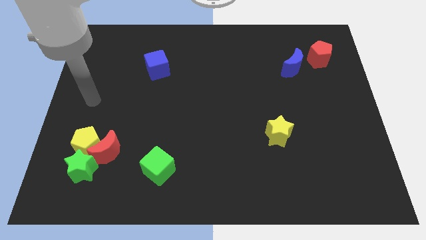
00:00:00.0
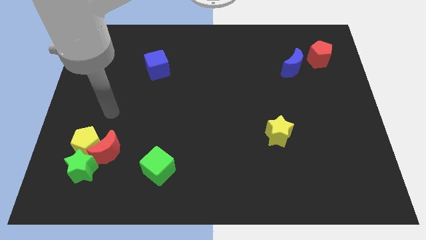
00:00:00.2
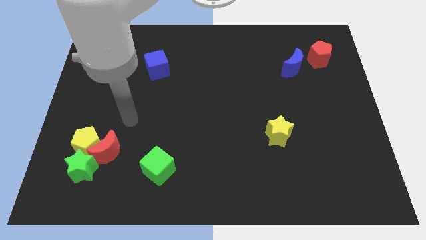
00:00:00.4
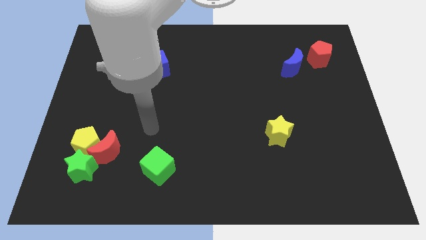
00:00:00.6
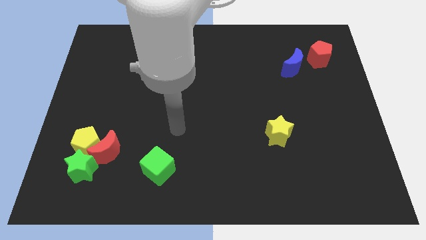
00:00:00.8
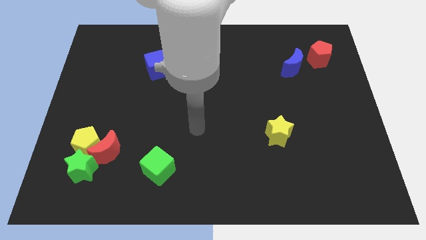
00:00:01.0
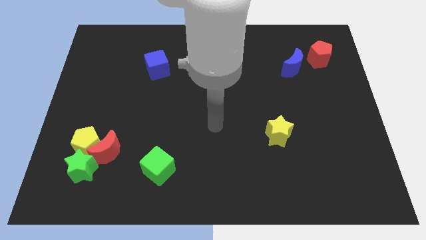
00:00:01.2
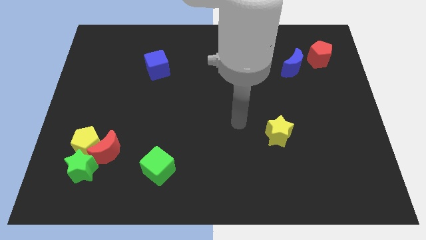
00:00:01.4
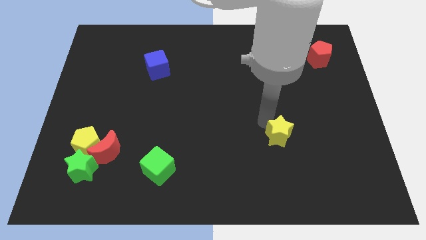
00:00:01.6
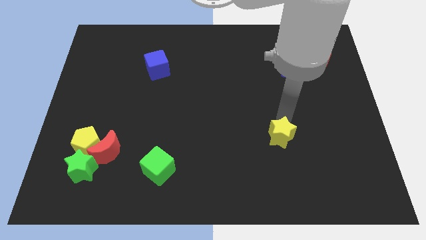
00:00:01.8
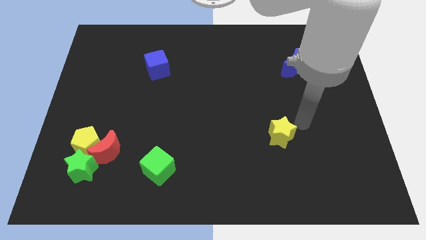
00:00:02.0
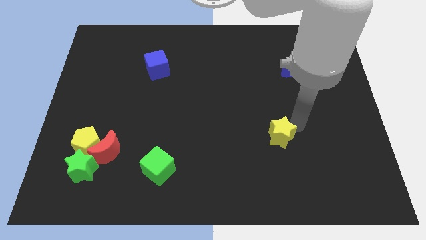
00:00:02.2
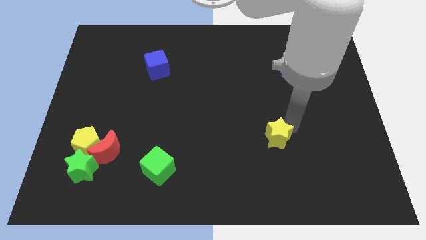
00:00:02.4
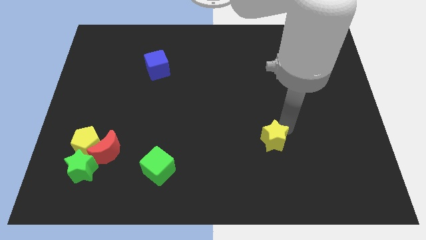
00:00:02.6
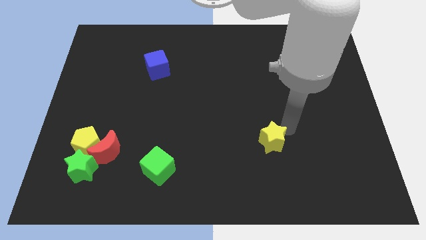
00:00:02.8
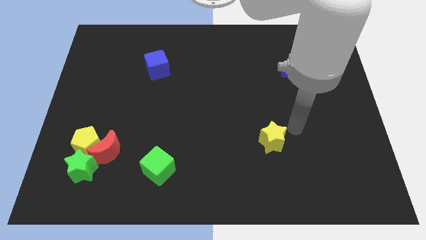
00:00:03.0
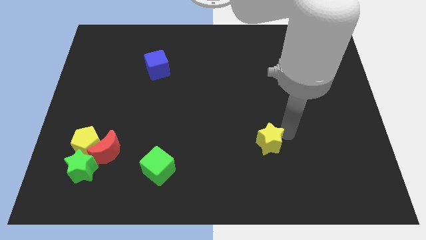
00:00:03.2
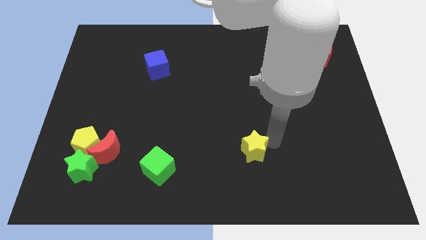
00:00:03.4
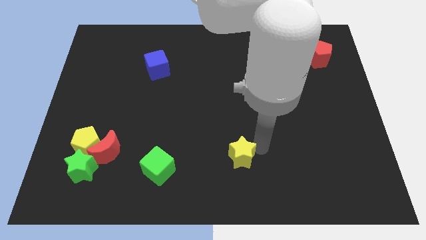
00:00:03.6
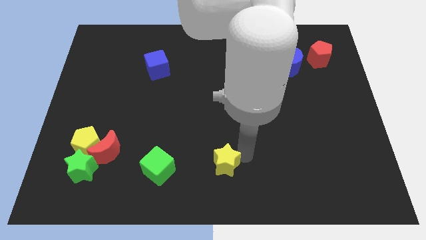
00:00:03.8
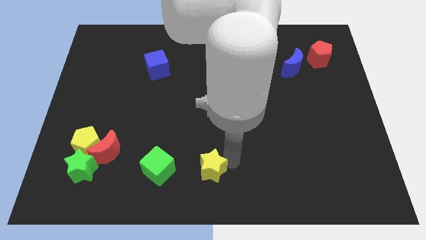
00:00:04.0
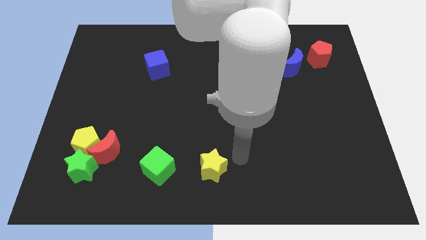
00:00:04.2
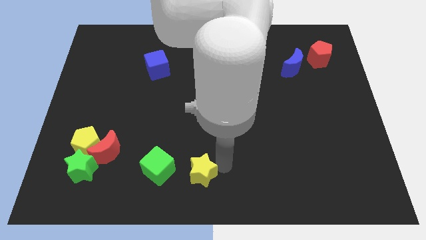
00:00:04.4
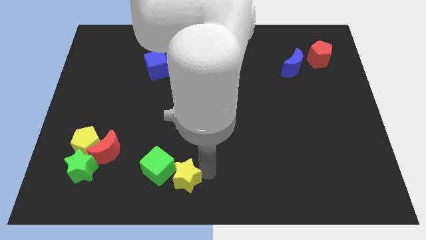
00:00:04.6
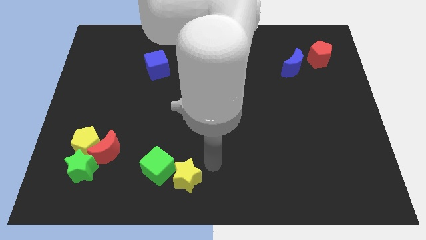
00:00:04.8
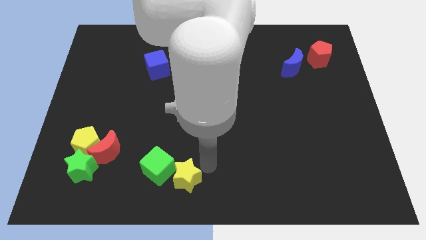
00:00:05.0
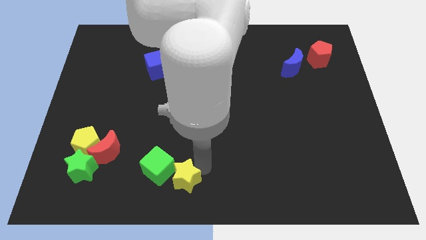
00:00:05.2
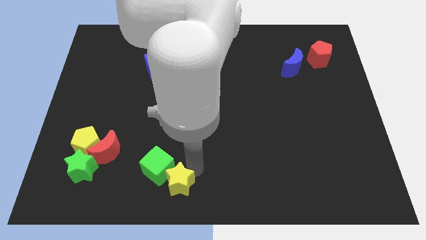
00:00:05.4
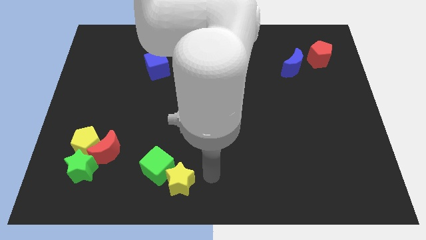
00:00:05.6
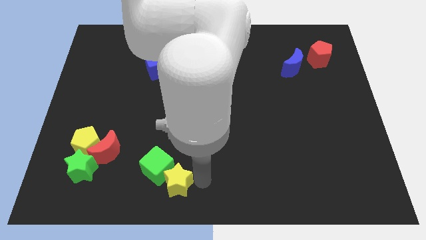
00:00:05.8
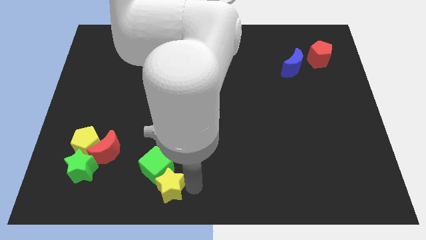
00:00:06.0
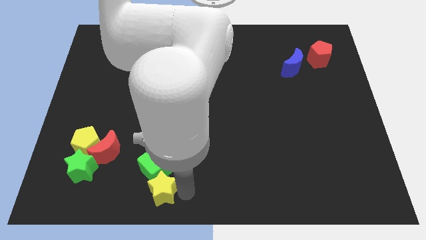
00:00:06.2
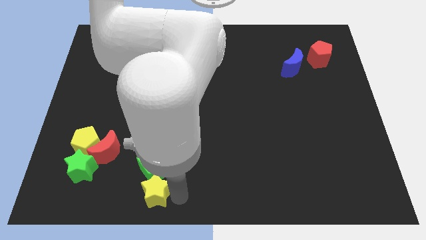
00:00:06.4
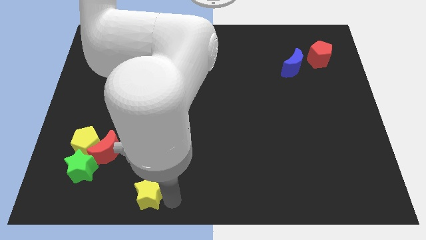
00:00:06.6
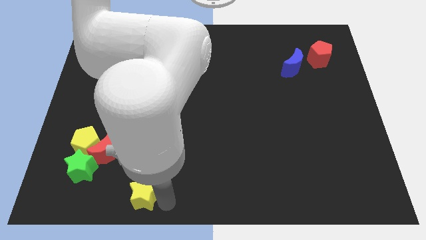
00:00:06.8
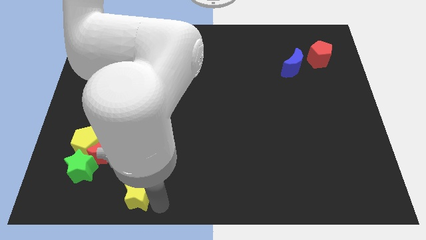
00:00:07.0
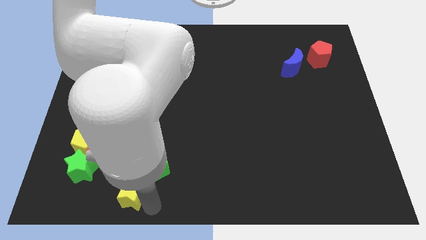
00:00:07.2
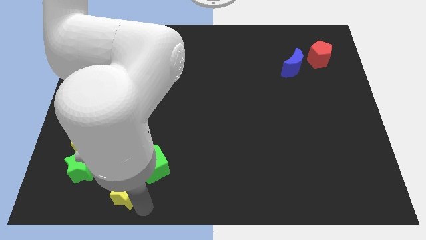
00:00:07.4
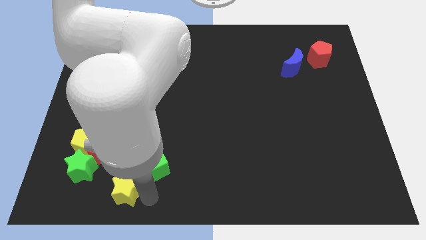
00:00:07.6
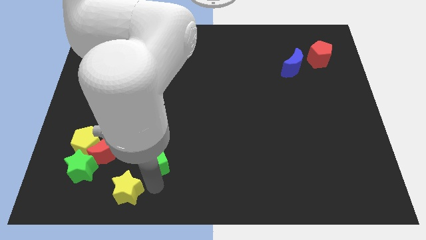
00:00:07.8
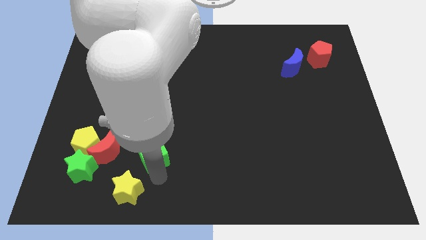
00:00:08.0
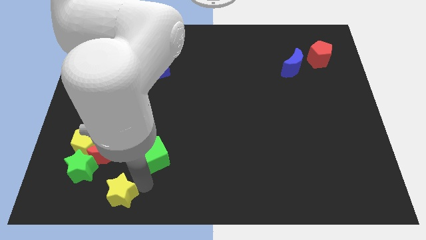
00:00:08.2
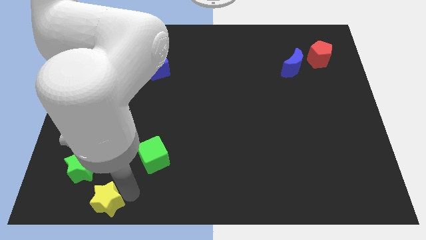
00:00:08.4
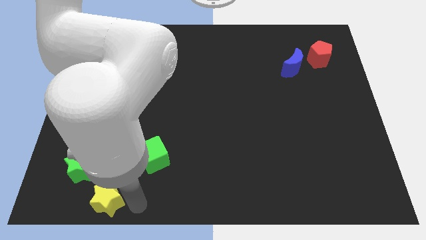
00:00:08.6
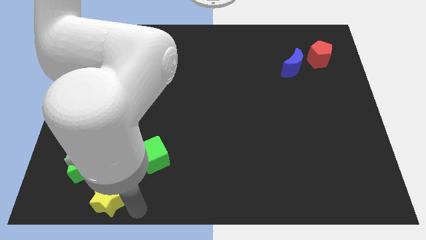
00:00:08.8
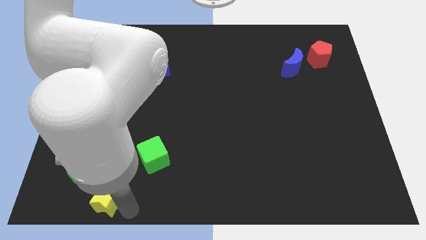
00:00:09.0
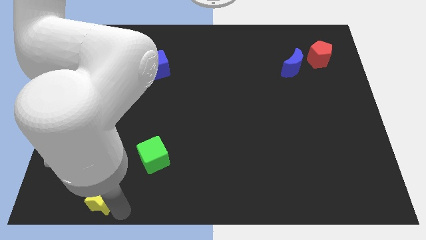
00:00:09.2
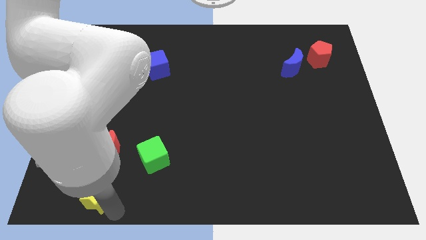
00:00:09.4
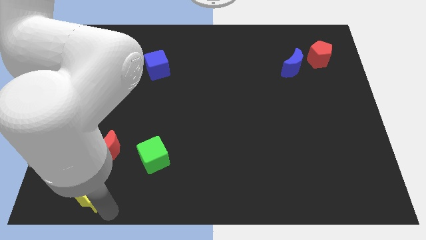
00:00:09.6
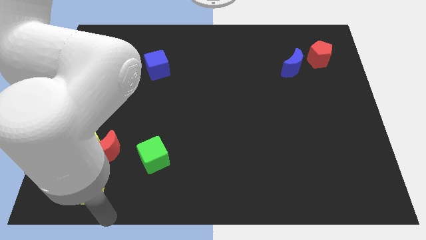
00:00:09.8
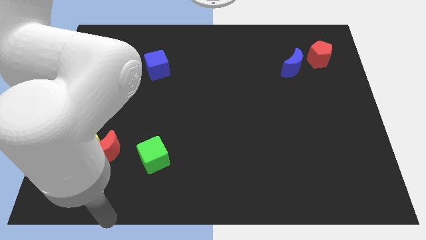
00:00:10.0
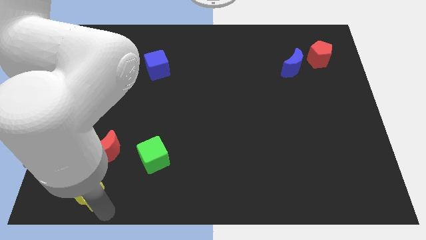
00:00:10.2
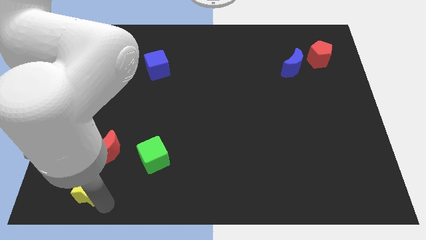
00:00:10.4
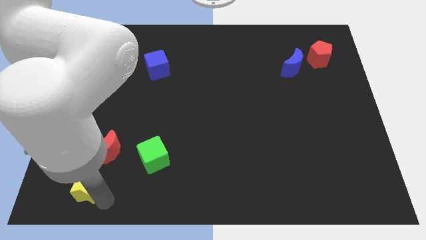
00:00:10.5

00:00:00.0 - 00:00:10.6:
slide the yellow star diagonally down and to the left of the red moon

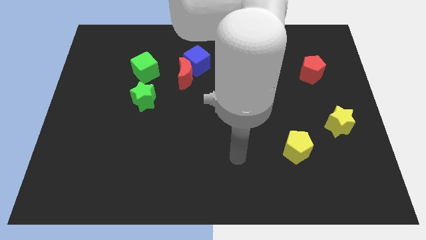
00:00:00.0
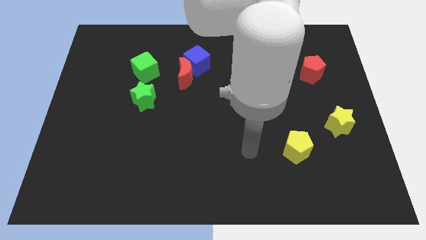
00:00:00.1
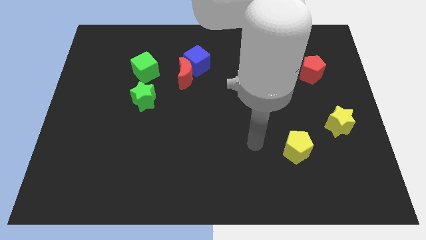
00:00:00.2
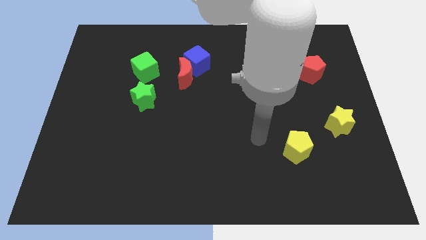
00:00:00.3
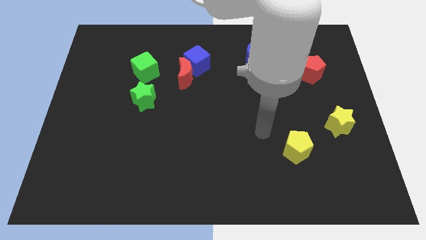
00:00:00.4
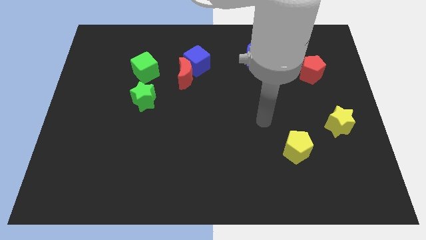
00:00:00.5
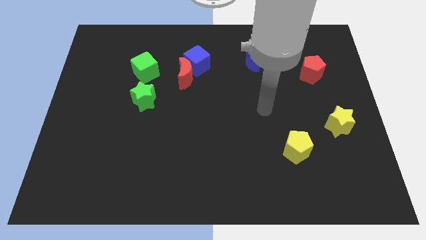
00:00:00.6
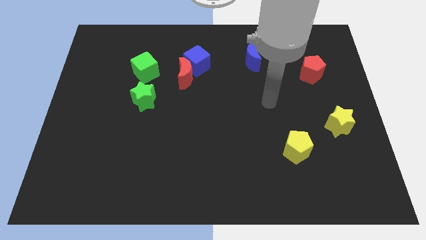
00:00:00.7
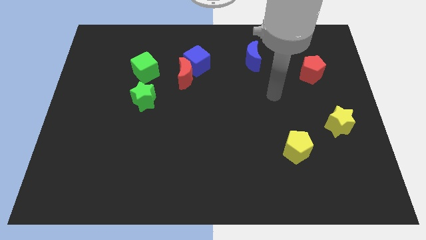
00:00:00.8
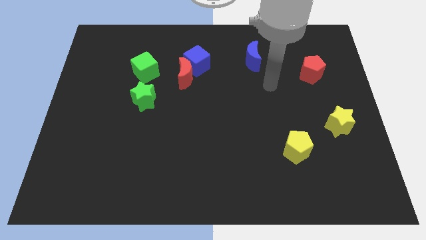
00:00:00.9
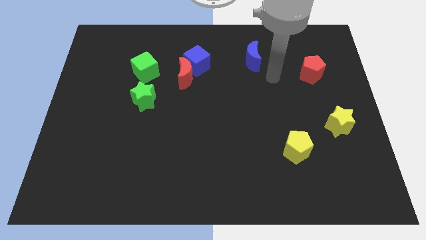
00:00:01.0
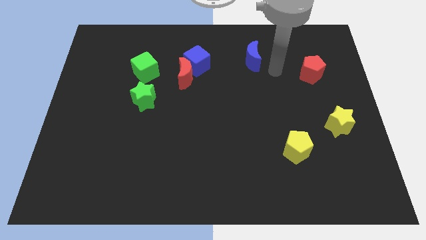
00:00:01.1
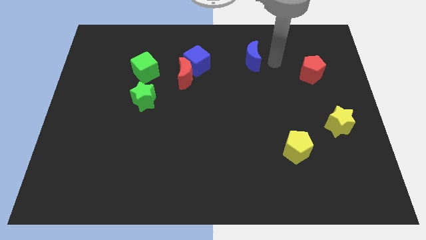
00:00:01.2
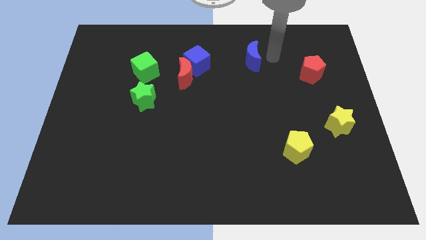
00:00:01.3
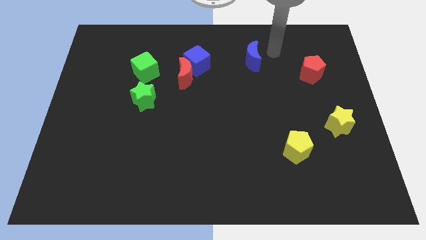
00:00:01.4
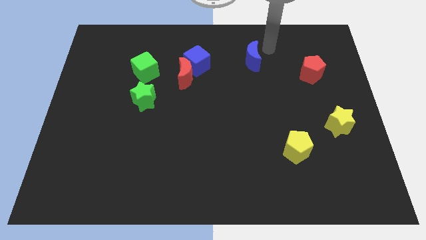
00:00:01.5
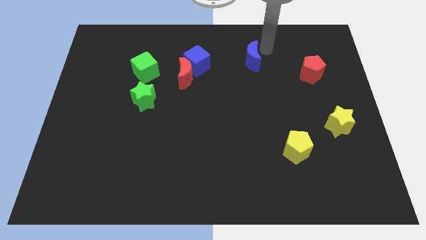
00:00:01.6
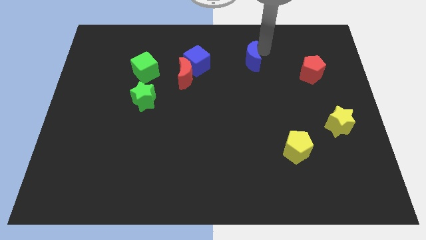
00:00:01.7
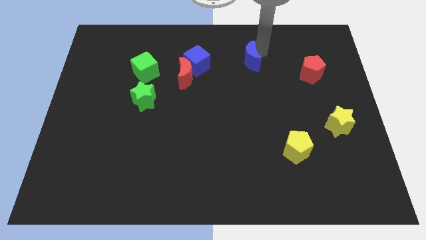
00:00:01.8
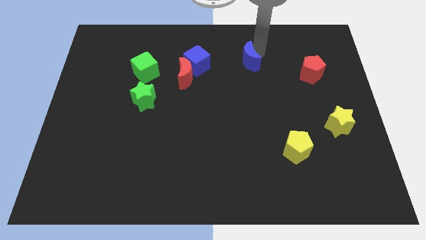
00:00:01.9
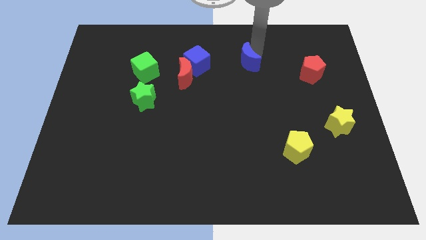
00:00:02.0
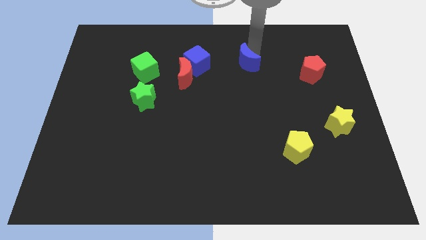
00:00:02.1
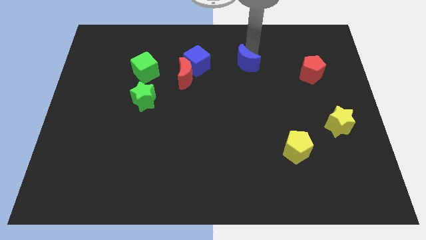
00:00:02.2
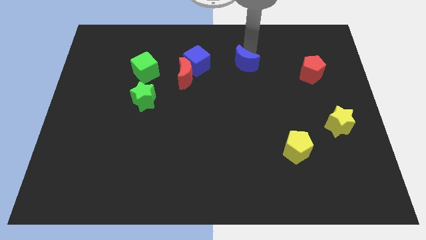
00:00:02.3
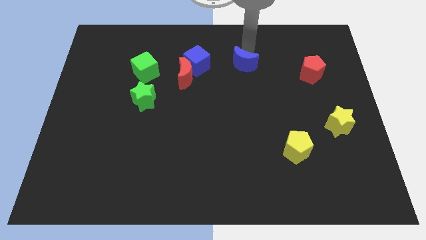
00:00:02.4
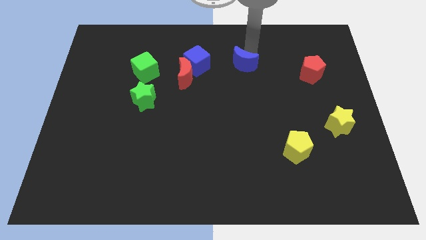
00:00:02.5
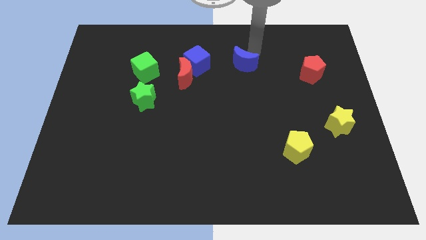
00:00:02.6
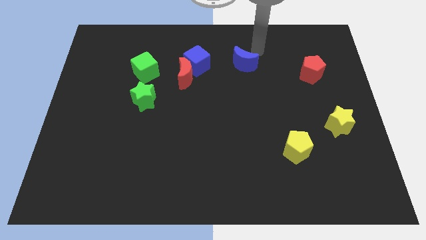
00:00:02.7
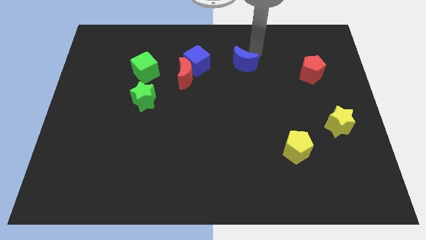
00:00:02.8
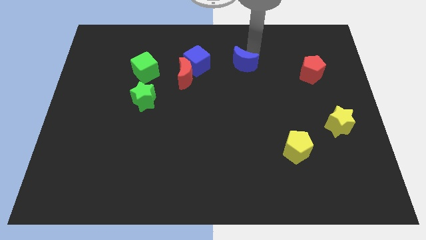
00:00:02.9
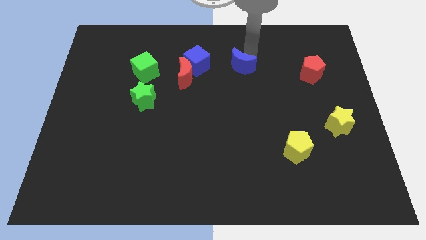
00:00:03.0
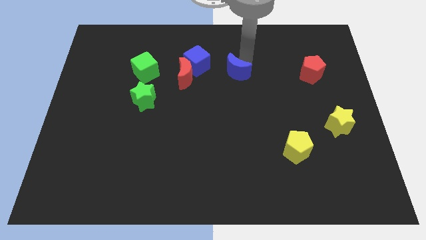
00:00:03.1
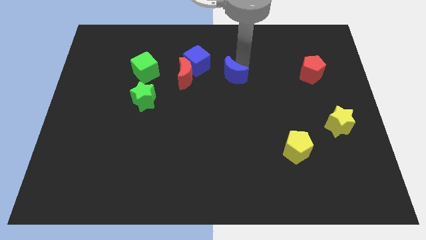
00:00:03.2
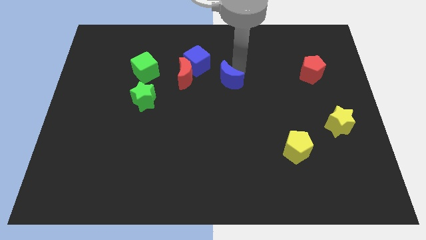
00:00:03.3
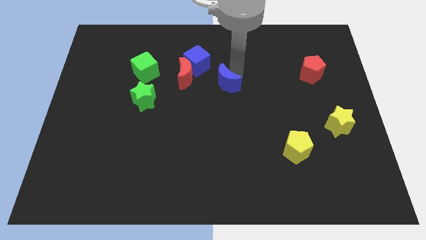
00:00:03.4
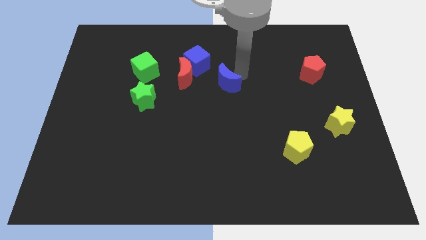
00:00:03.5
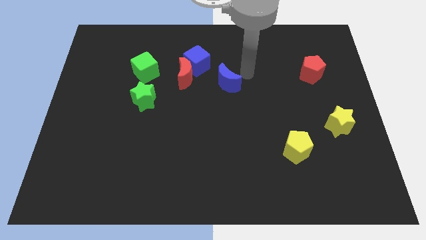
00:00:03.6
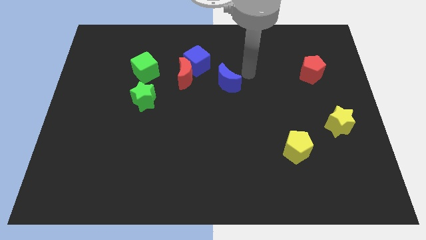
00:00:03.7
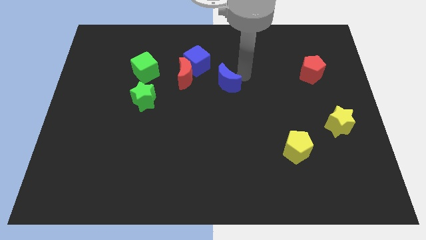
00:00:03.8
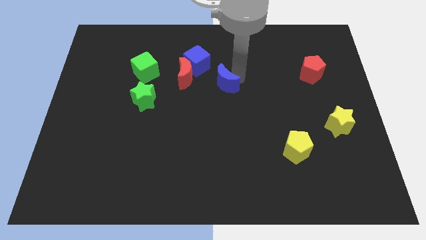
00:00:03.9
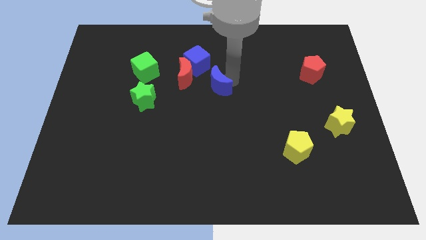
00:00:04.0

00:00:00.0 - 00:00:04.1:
slide the blue moon to the bottom right of the red moon
